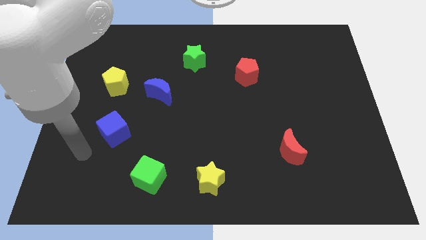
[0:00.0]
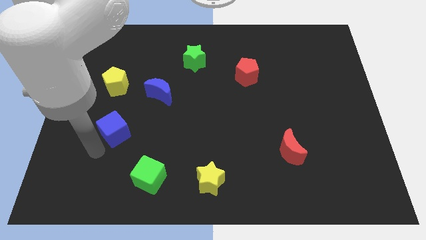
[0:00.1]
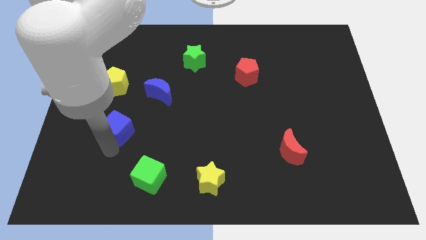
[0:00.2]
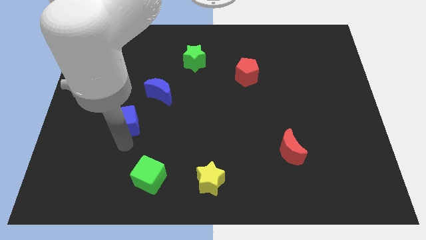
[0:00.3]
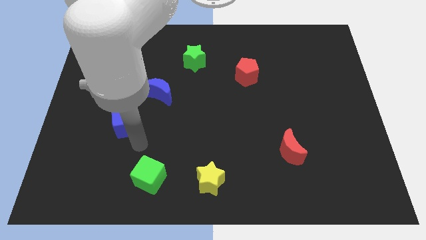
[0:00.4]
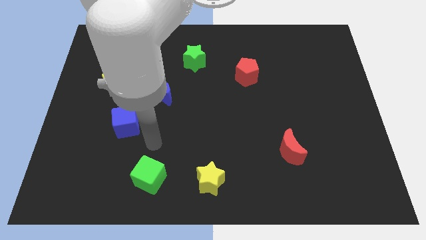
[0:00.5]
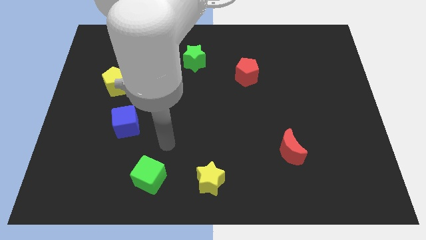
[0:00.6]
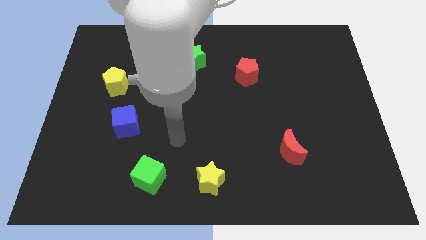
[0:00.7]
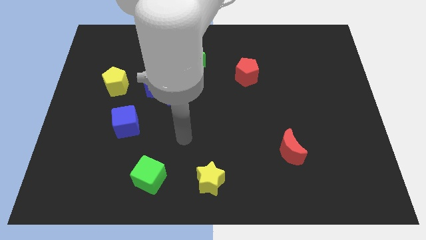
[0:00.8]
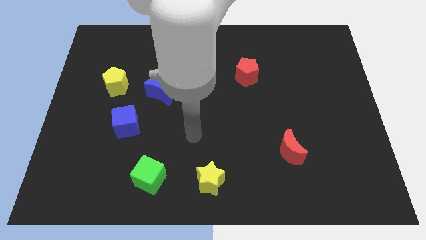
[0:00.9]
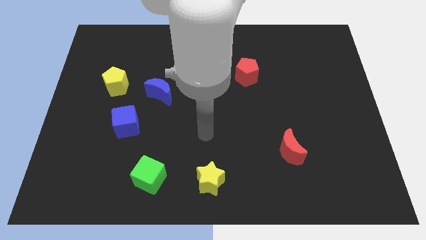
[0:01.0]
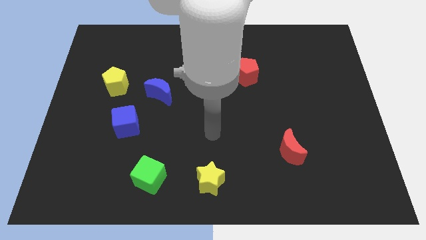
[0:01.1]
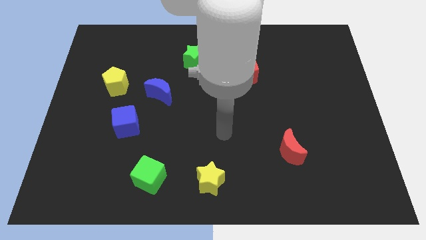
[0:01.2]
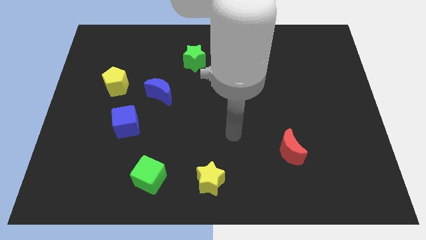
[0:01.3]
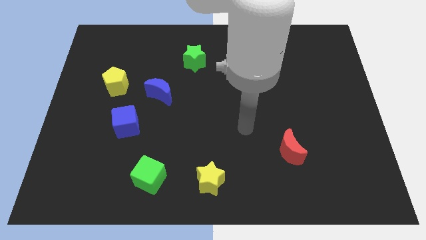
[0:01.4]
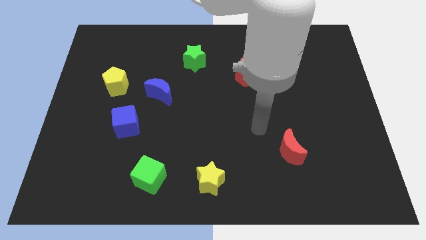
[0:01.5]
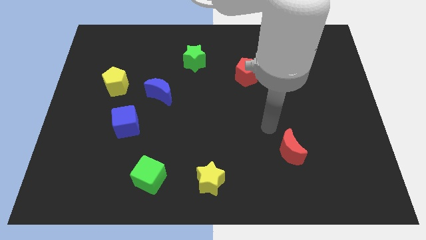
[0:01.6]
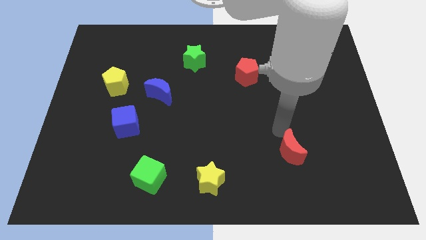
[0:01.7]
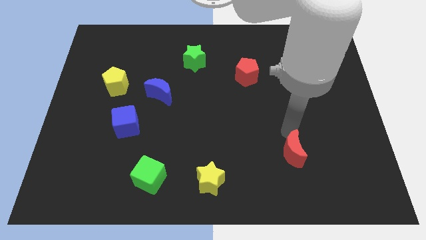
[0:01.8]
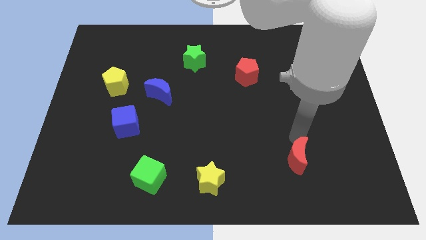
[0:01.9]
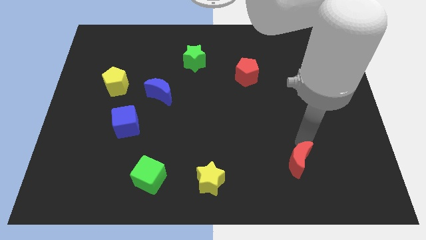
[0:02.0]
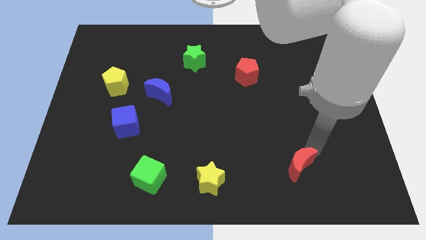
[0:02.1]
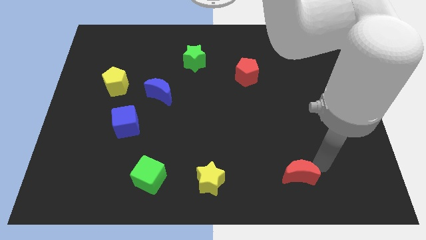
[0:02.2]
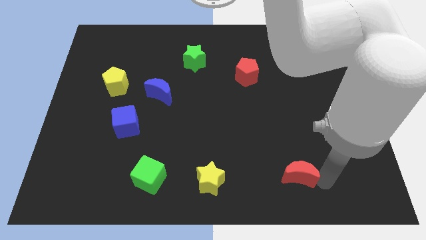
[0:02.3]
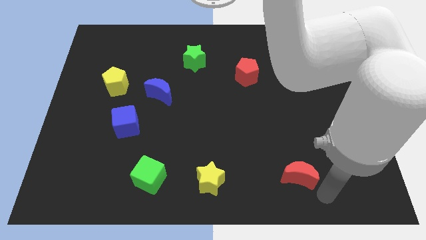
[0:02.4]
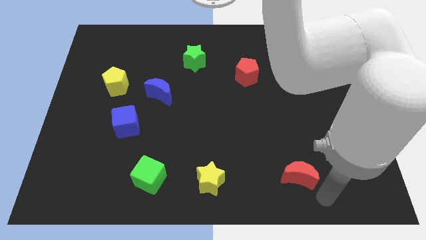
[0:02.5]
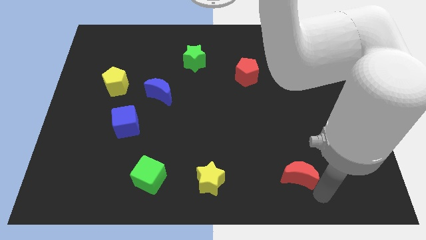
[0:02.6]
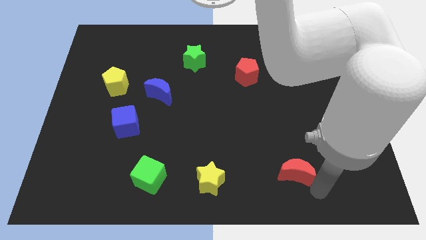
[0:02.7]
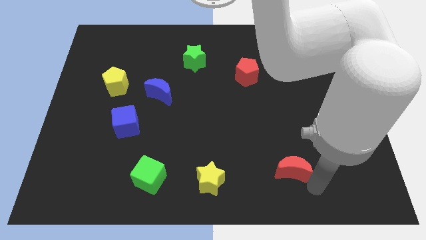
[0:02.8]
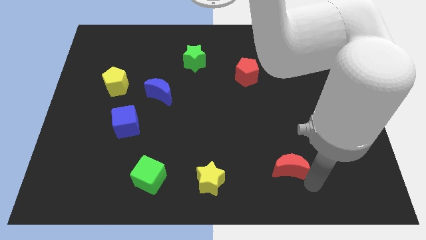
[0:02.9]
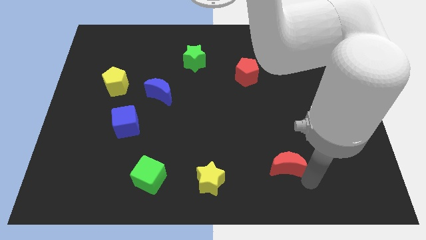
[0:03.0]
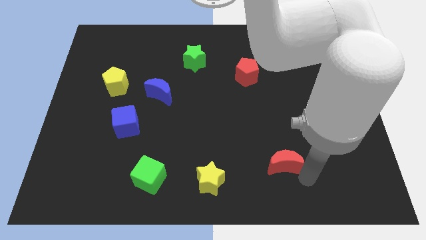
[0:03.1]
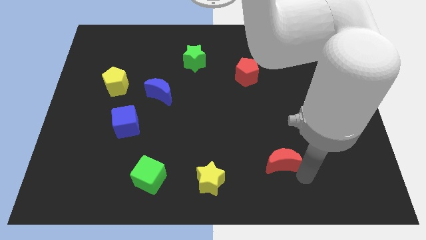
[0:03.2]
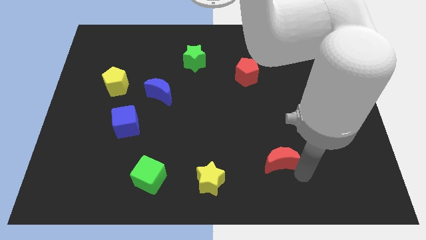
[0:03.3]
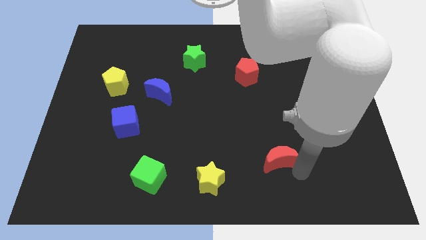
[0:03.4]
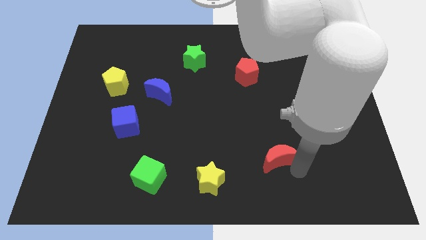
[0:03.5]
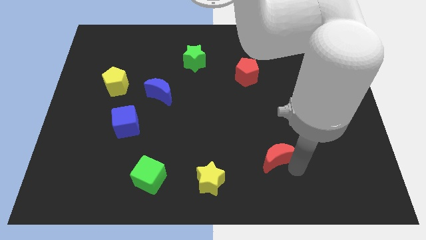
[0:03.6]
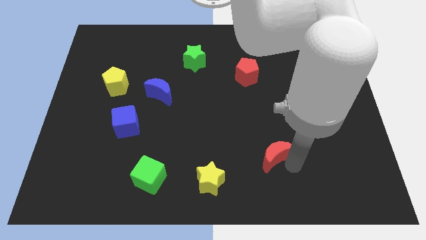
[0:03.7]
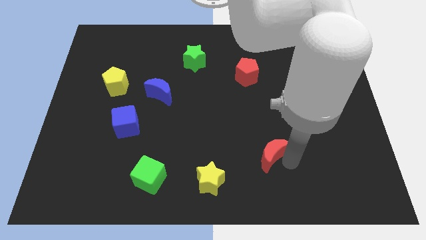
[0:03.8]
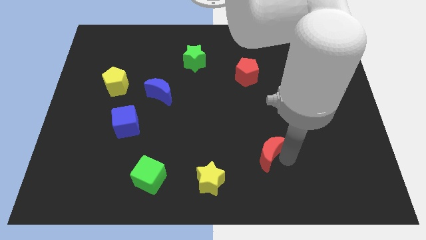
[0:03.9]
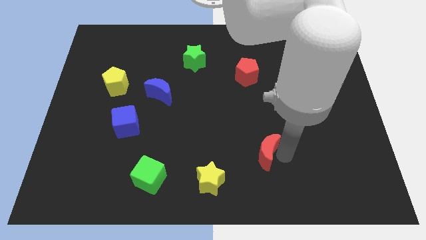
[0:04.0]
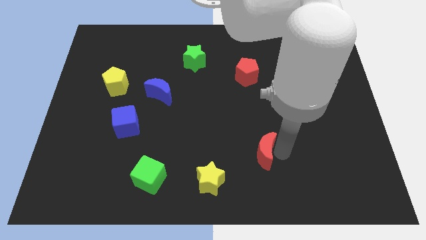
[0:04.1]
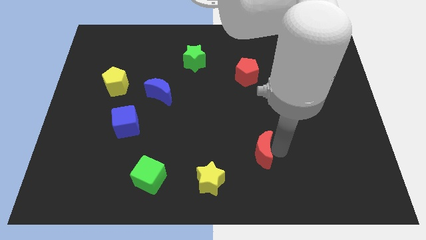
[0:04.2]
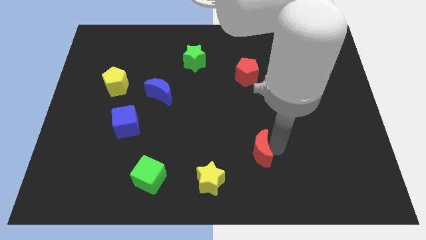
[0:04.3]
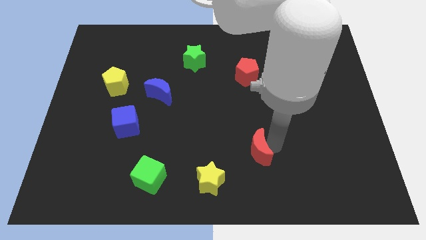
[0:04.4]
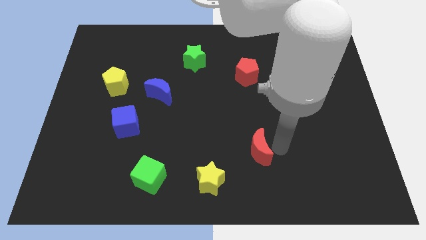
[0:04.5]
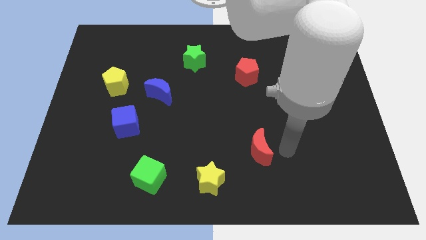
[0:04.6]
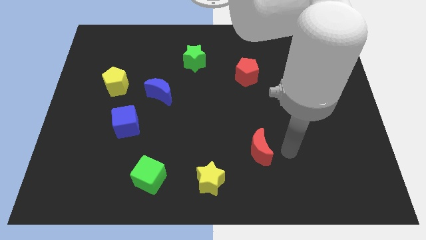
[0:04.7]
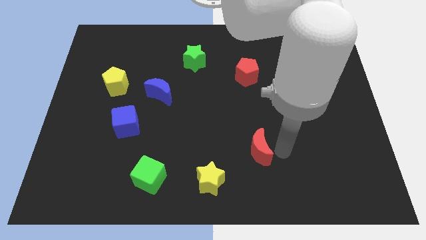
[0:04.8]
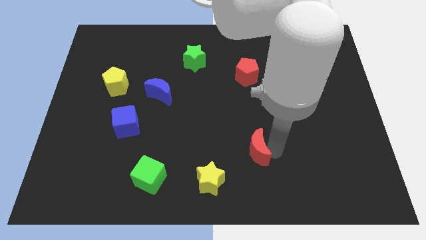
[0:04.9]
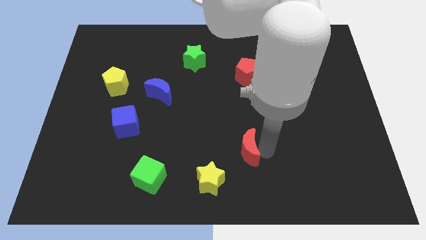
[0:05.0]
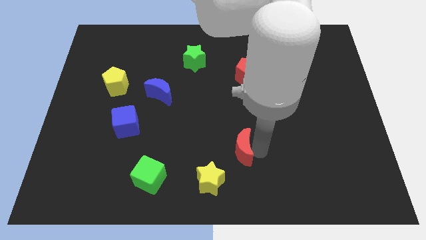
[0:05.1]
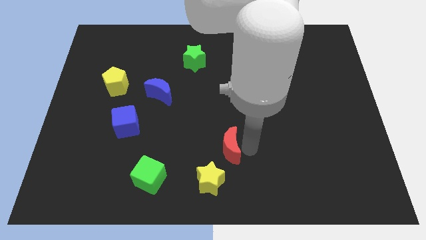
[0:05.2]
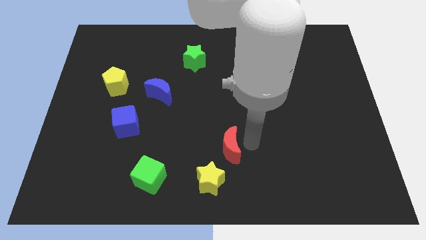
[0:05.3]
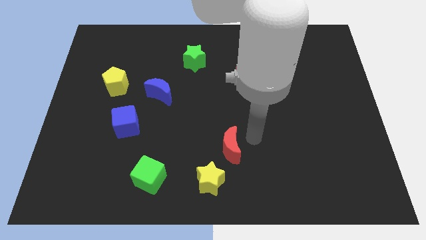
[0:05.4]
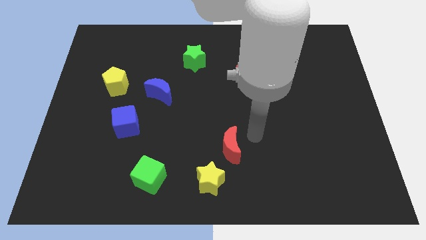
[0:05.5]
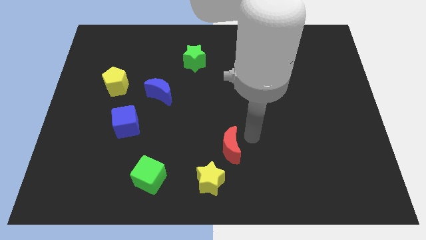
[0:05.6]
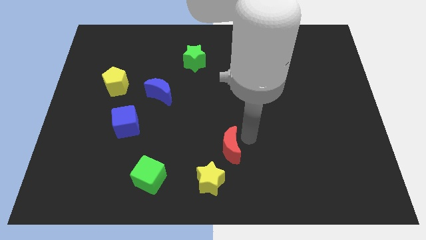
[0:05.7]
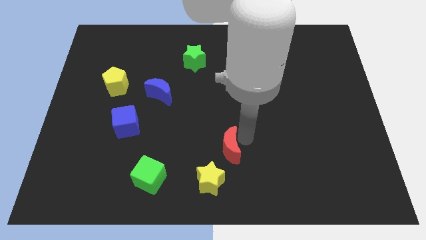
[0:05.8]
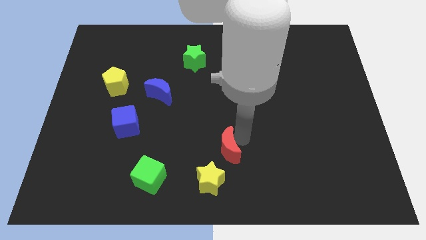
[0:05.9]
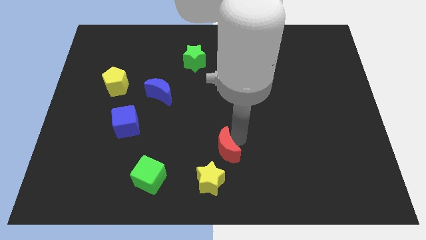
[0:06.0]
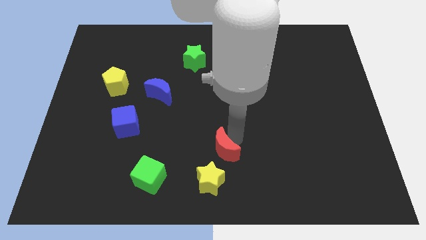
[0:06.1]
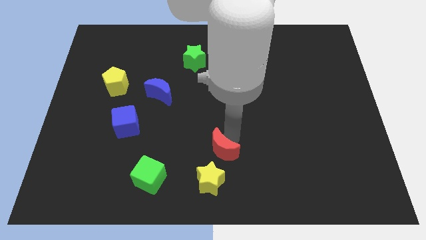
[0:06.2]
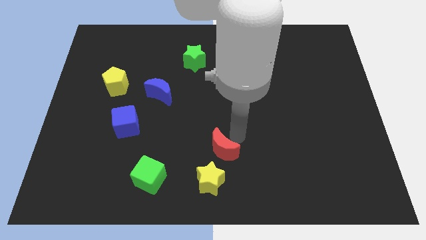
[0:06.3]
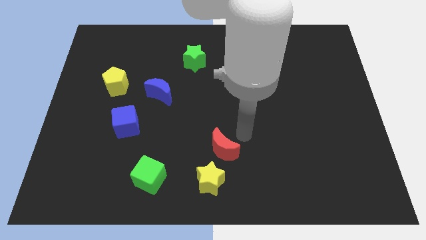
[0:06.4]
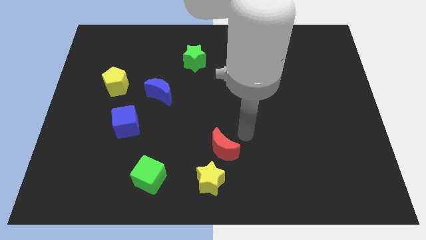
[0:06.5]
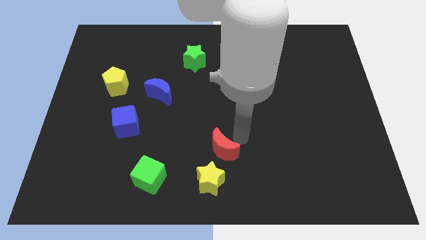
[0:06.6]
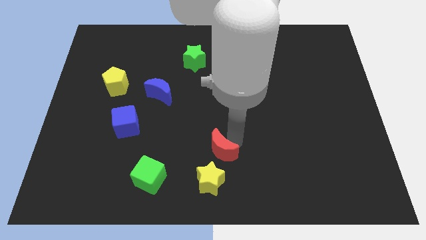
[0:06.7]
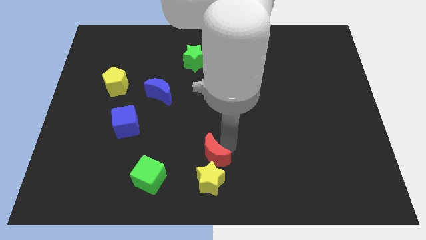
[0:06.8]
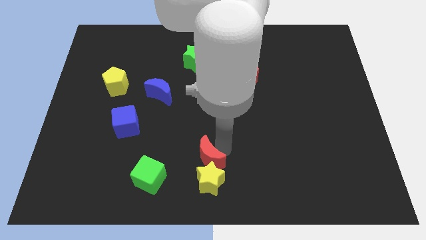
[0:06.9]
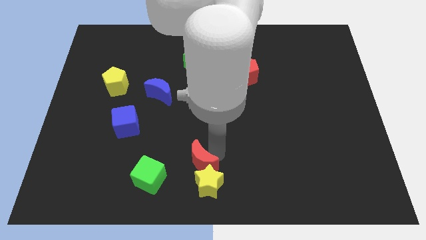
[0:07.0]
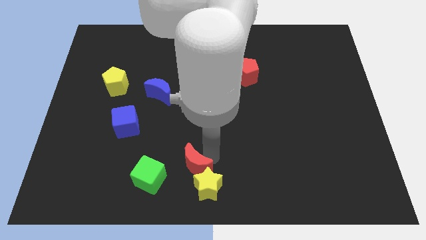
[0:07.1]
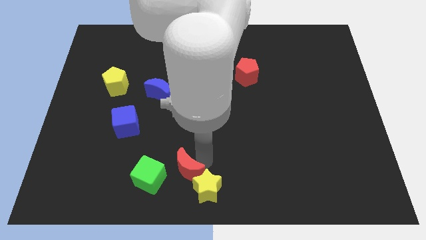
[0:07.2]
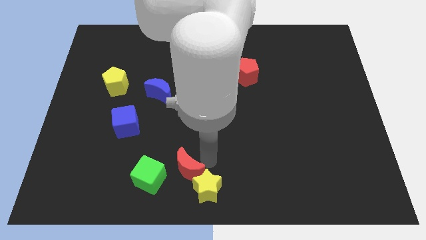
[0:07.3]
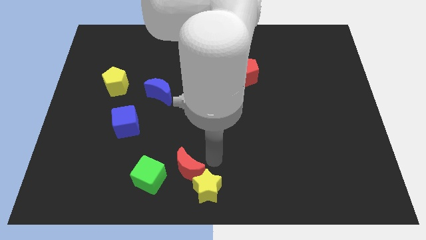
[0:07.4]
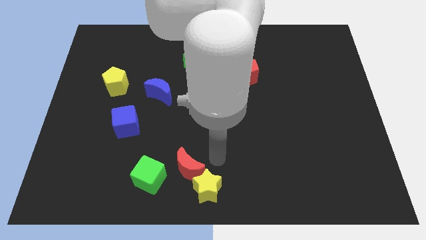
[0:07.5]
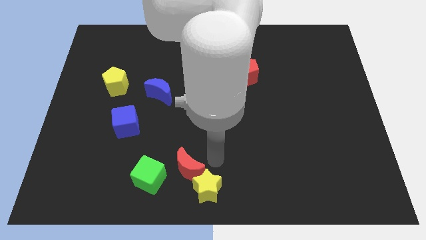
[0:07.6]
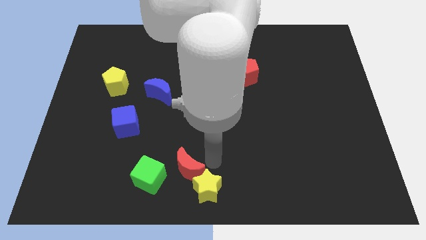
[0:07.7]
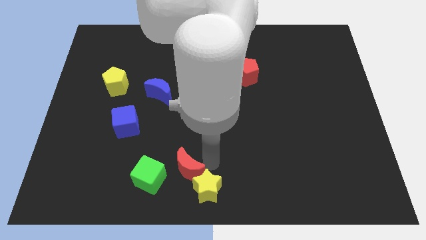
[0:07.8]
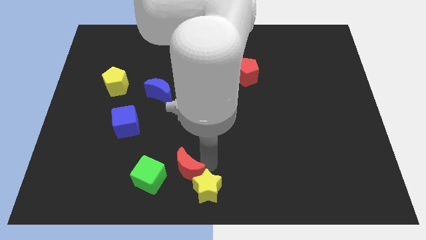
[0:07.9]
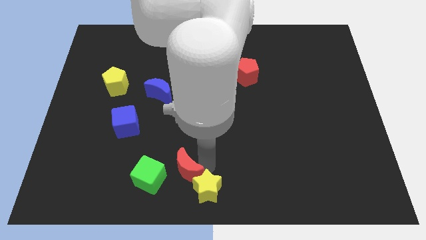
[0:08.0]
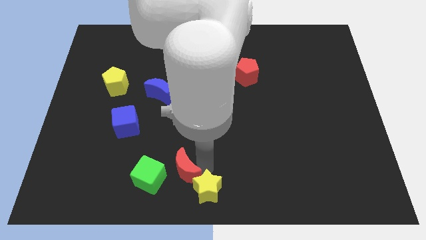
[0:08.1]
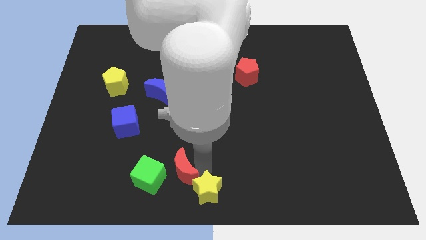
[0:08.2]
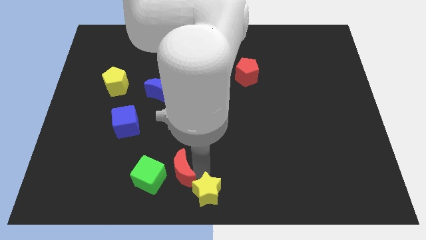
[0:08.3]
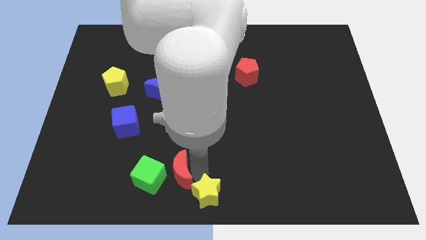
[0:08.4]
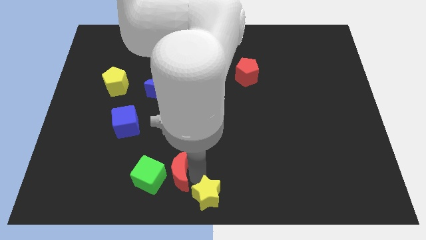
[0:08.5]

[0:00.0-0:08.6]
push the red moon to the green cube
